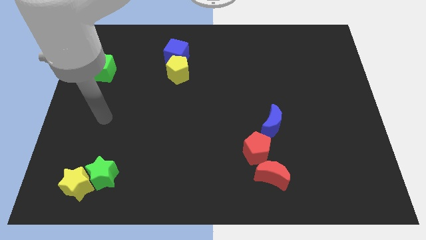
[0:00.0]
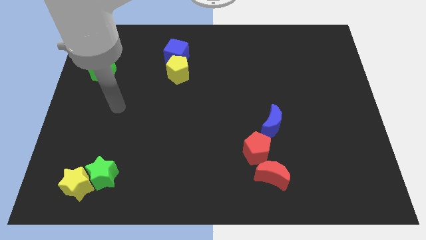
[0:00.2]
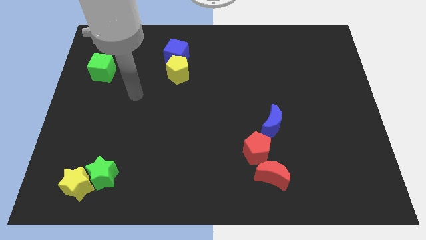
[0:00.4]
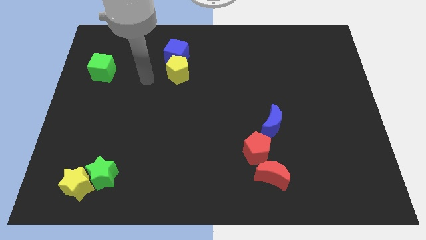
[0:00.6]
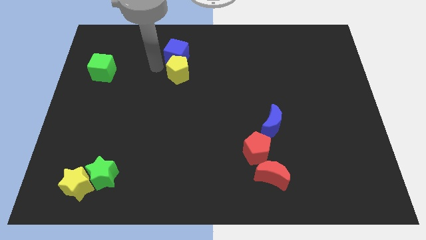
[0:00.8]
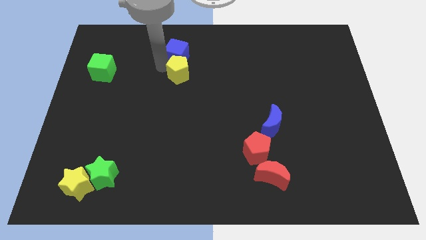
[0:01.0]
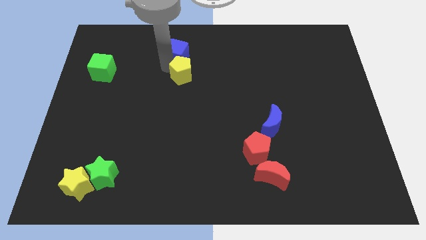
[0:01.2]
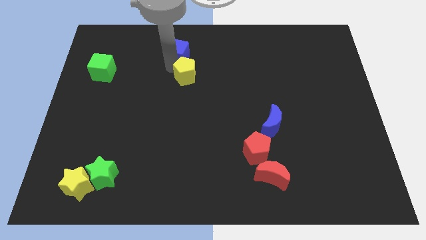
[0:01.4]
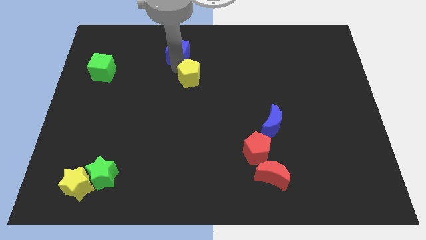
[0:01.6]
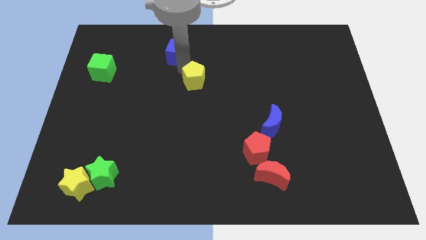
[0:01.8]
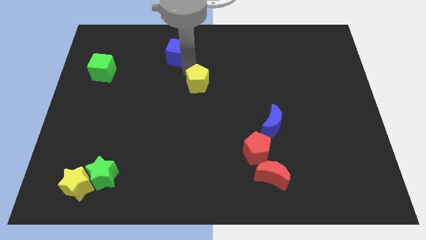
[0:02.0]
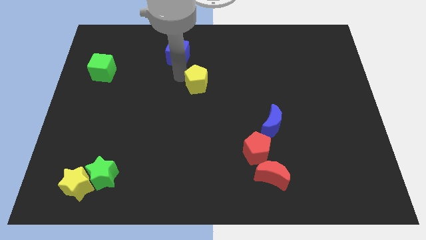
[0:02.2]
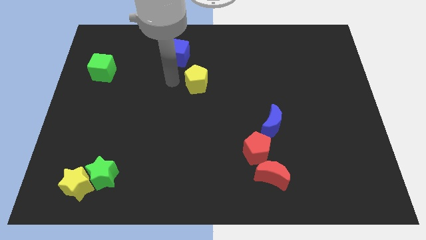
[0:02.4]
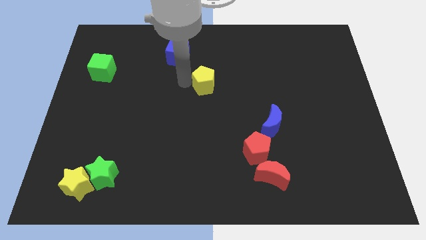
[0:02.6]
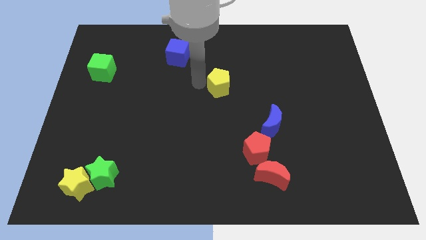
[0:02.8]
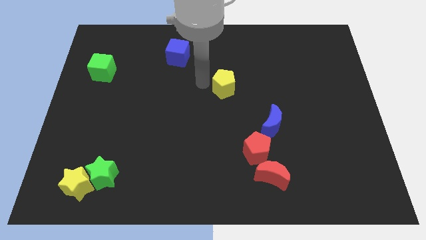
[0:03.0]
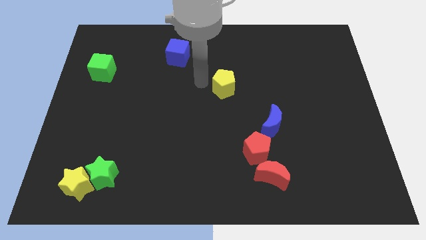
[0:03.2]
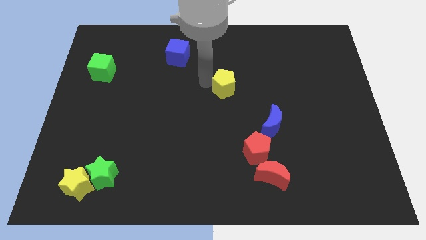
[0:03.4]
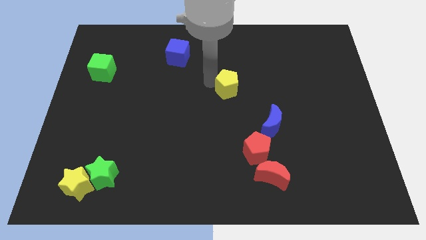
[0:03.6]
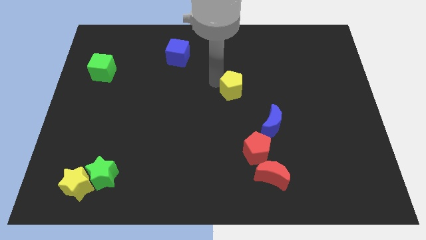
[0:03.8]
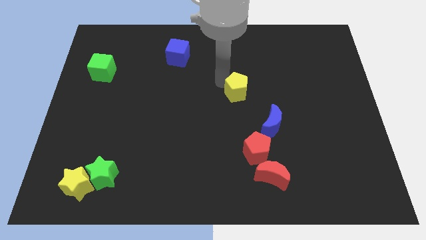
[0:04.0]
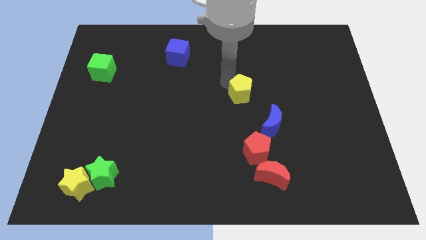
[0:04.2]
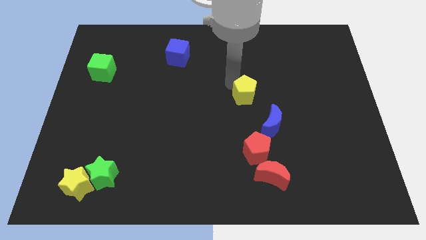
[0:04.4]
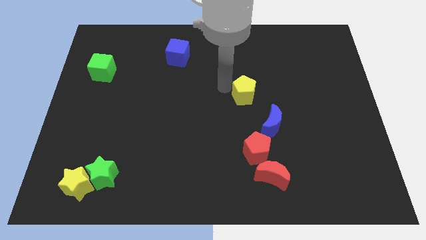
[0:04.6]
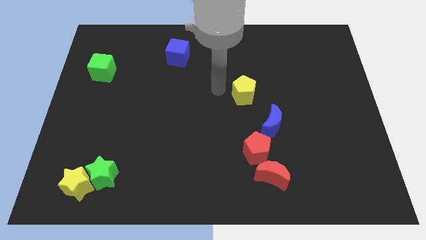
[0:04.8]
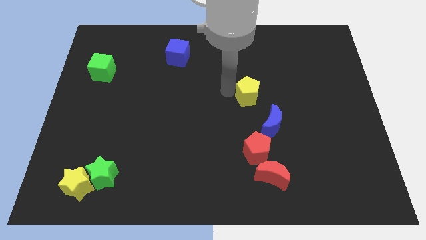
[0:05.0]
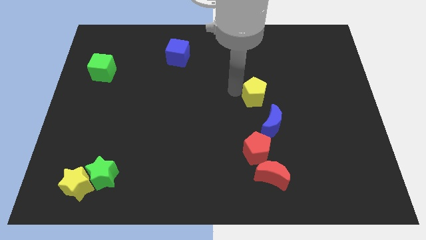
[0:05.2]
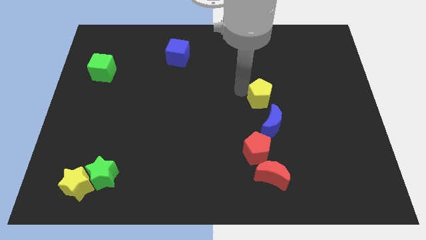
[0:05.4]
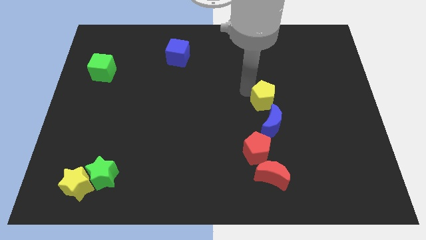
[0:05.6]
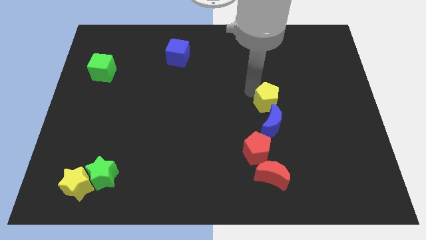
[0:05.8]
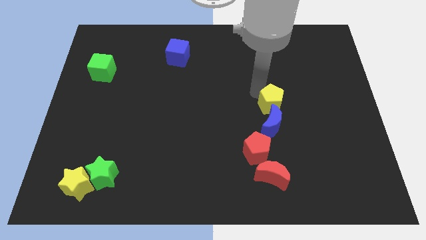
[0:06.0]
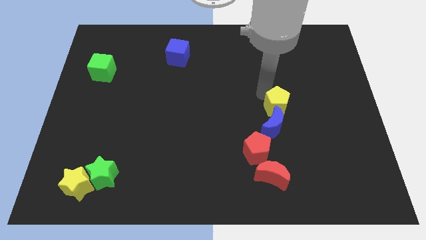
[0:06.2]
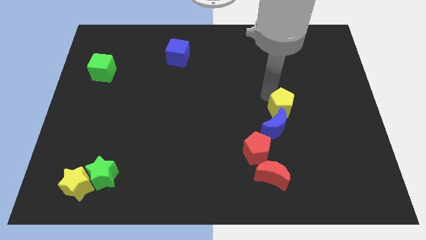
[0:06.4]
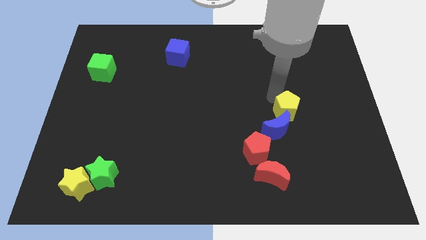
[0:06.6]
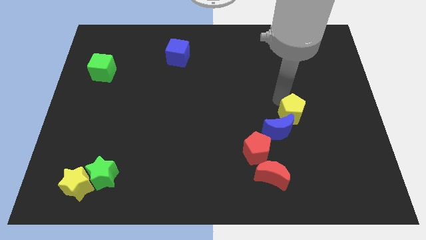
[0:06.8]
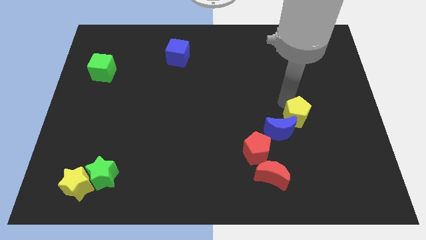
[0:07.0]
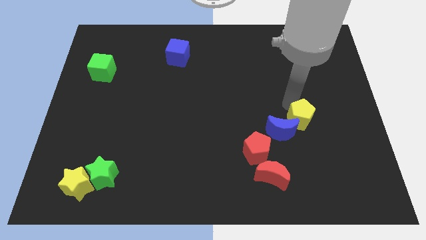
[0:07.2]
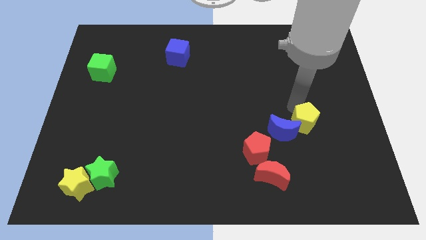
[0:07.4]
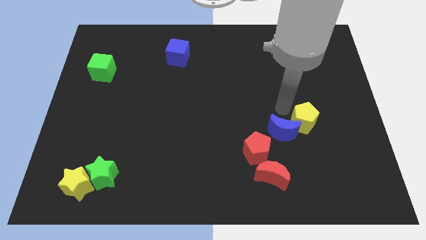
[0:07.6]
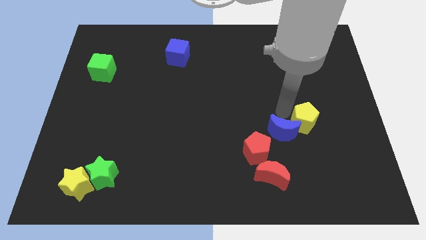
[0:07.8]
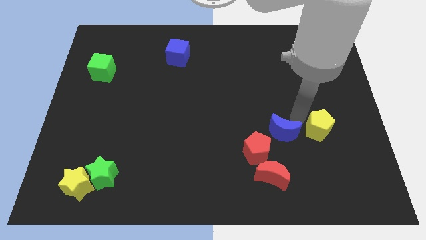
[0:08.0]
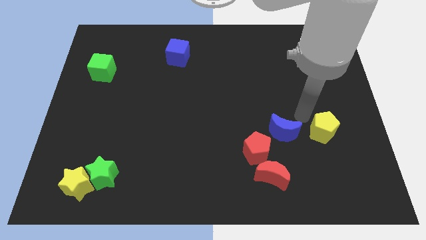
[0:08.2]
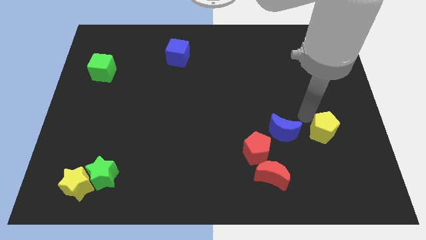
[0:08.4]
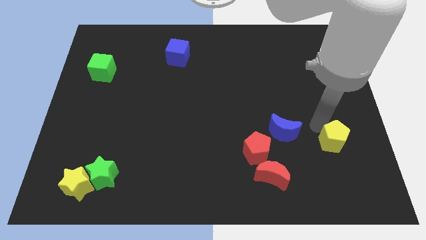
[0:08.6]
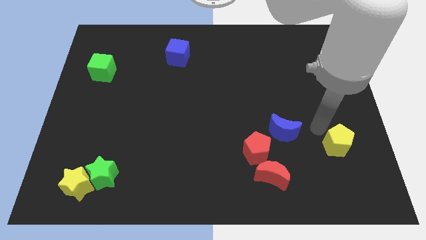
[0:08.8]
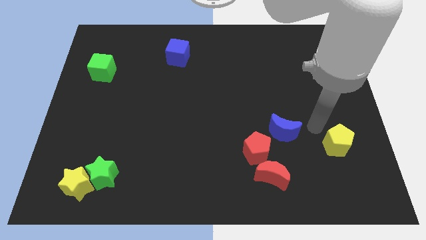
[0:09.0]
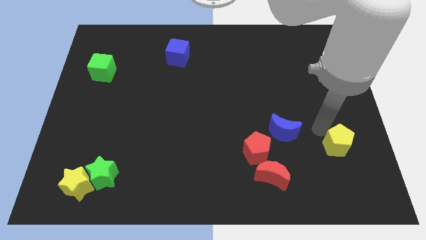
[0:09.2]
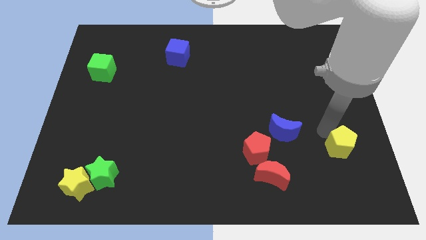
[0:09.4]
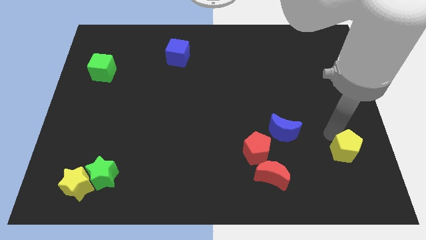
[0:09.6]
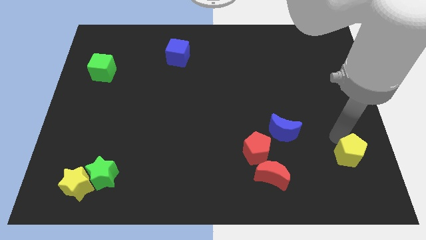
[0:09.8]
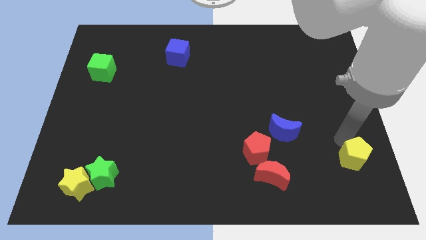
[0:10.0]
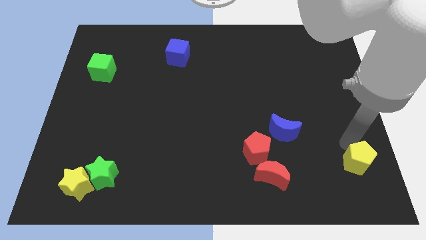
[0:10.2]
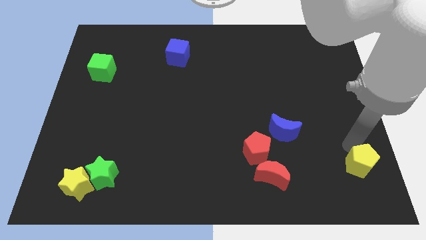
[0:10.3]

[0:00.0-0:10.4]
put the yellow pentagon to the bottom right

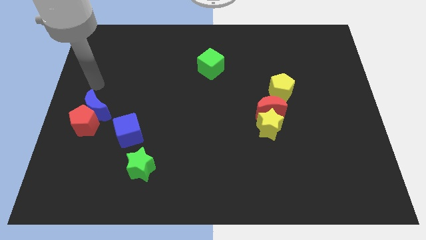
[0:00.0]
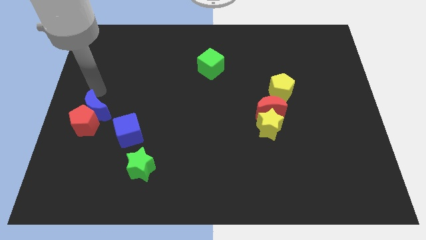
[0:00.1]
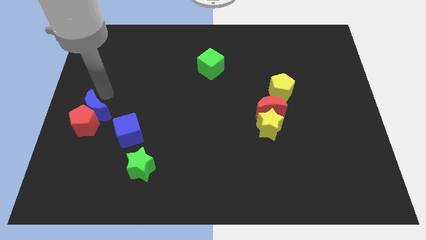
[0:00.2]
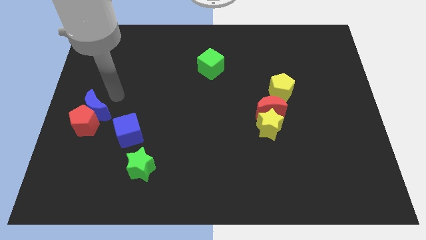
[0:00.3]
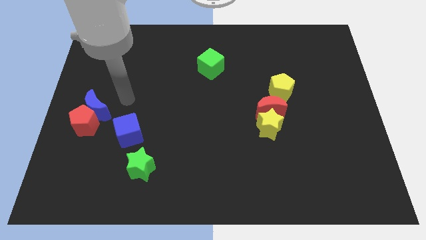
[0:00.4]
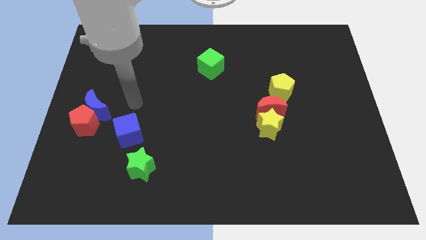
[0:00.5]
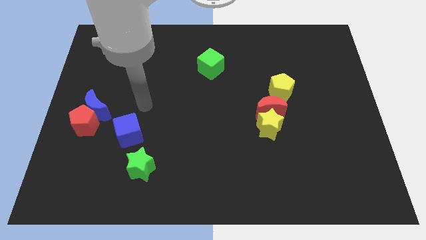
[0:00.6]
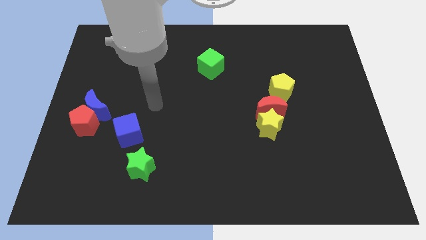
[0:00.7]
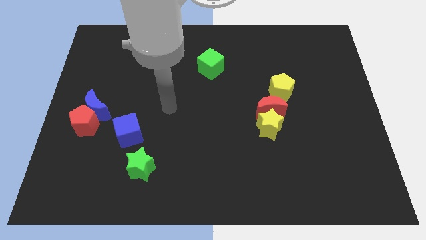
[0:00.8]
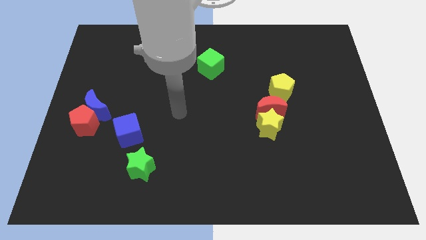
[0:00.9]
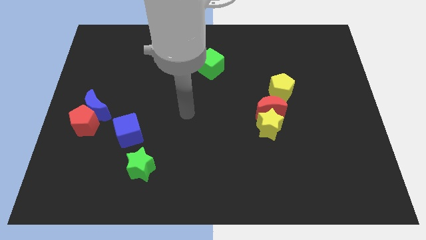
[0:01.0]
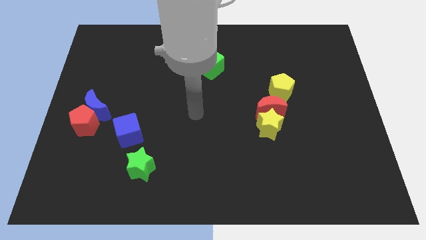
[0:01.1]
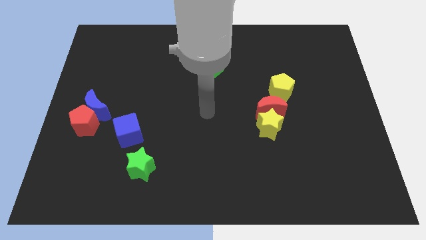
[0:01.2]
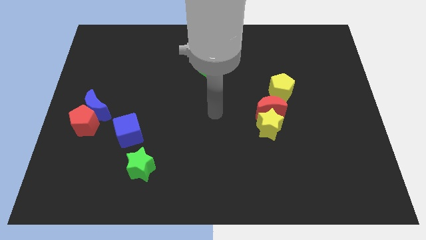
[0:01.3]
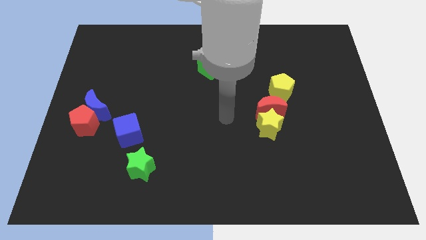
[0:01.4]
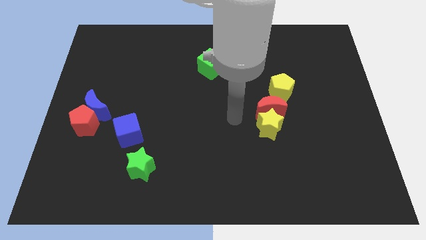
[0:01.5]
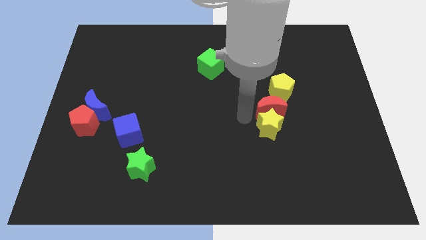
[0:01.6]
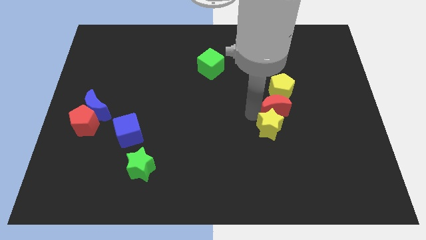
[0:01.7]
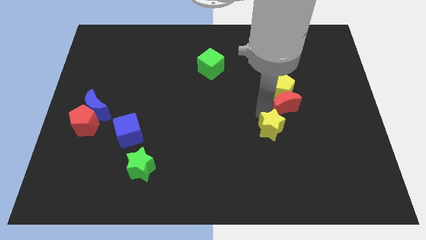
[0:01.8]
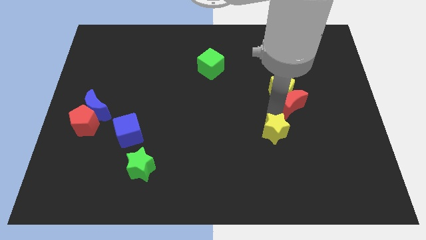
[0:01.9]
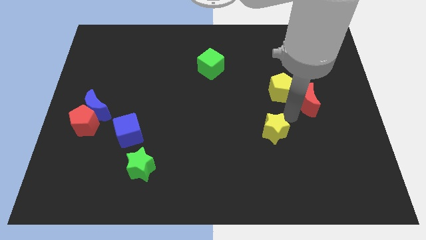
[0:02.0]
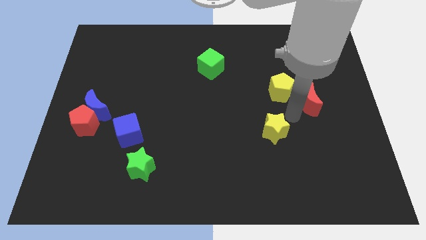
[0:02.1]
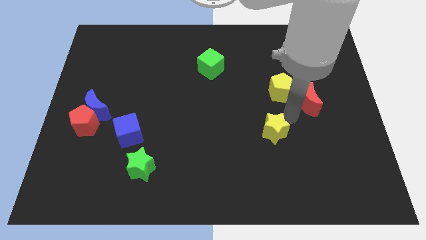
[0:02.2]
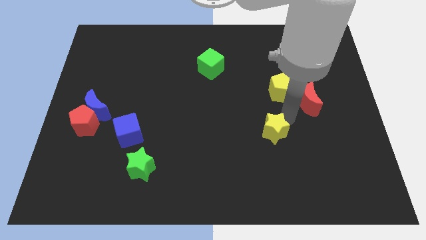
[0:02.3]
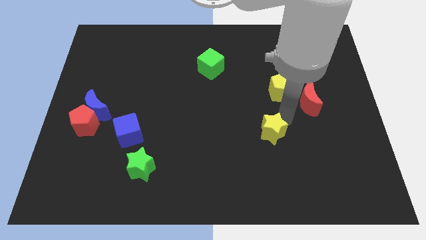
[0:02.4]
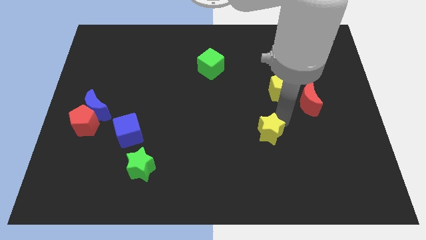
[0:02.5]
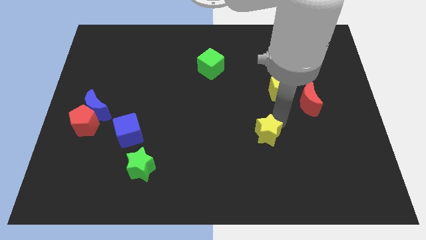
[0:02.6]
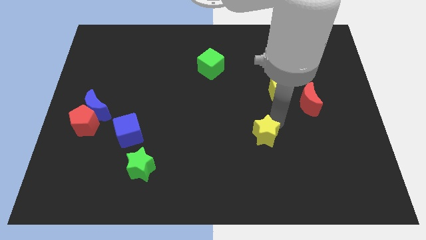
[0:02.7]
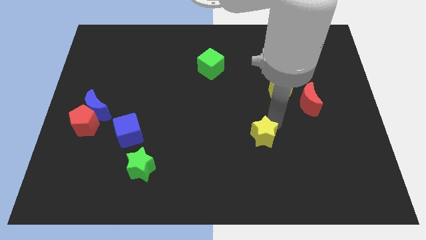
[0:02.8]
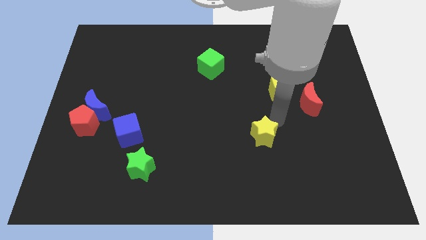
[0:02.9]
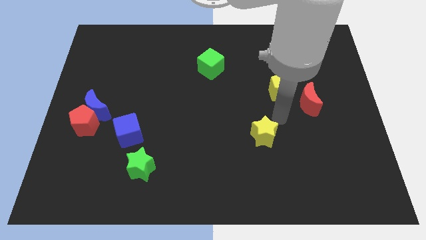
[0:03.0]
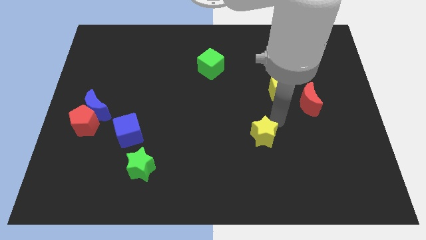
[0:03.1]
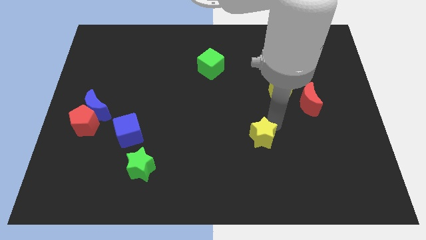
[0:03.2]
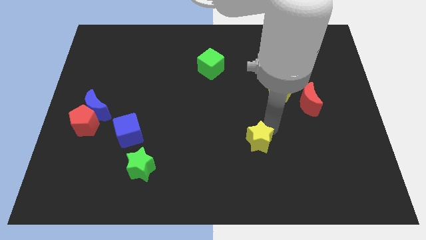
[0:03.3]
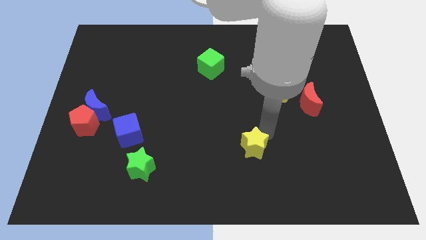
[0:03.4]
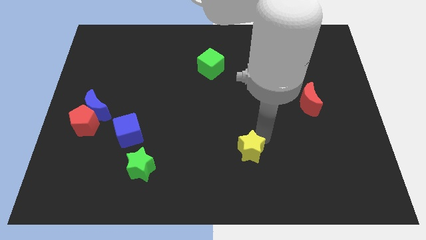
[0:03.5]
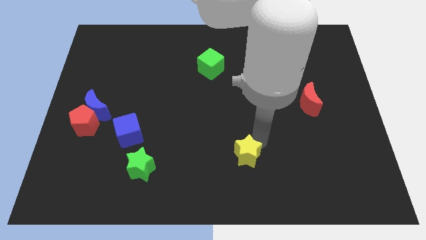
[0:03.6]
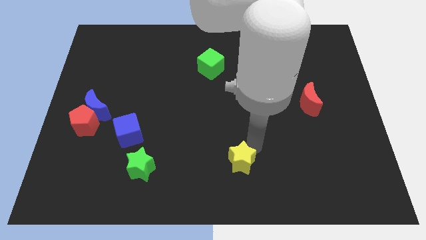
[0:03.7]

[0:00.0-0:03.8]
slide the yellow star to the bottom side
